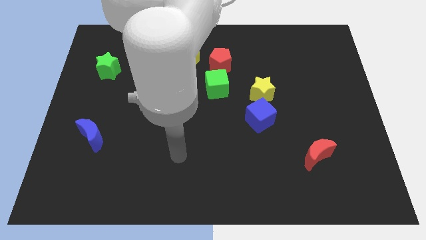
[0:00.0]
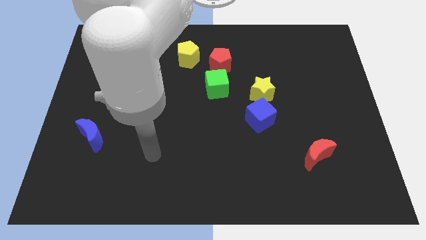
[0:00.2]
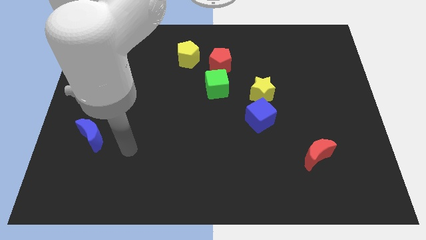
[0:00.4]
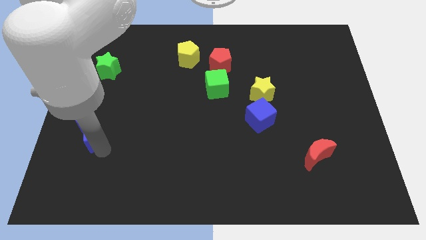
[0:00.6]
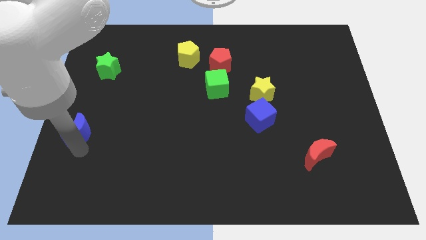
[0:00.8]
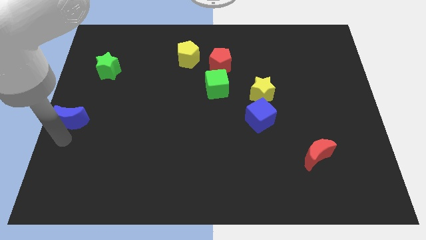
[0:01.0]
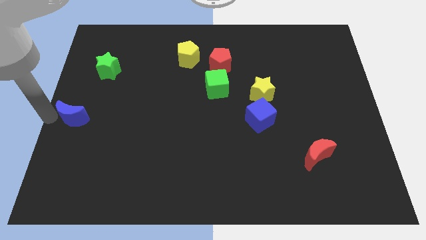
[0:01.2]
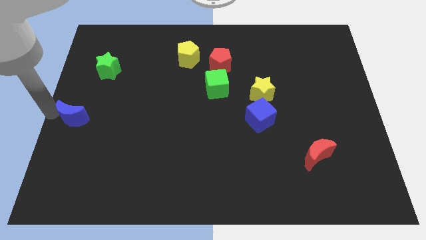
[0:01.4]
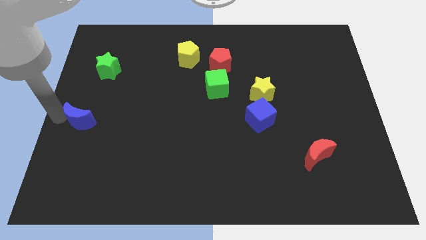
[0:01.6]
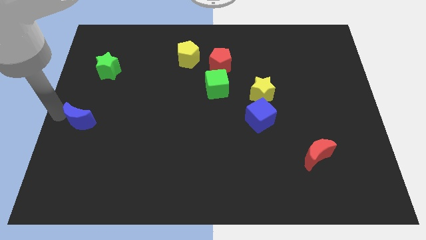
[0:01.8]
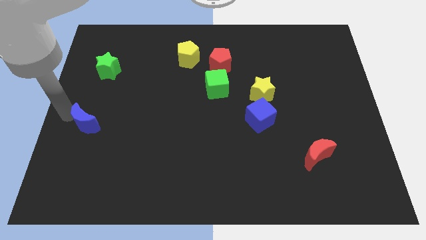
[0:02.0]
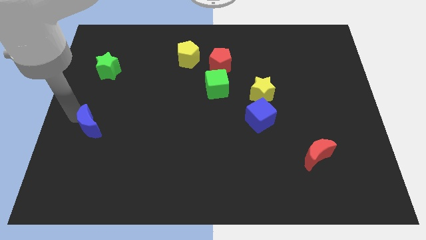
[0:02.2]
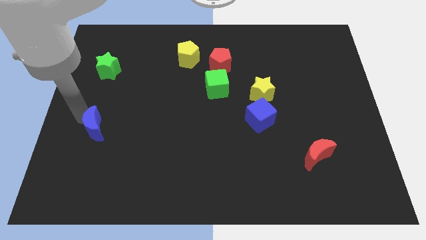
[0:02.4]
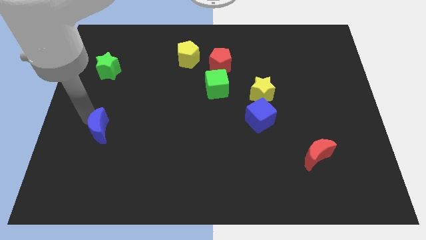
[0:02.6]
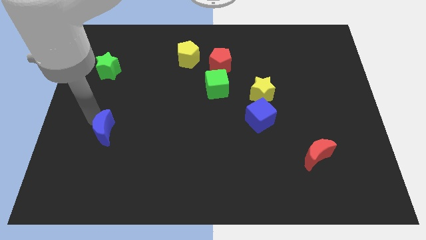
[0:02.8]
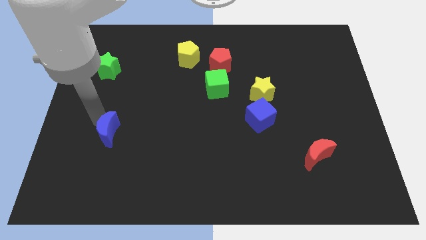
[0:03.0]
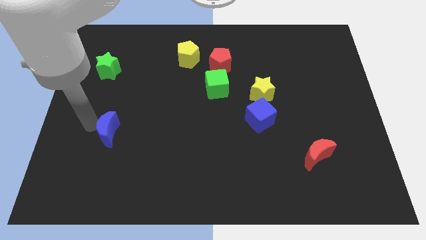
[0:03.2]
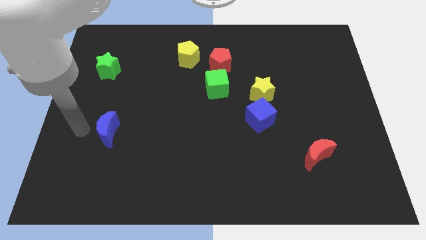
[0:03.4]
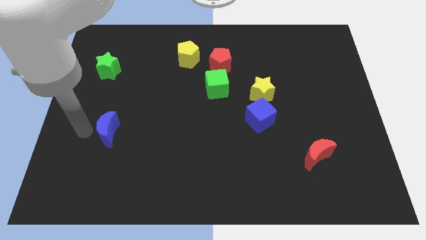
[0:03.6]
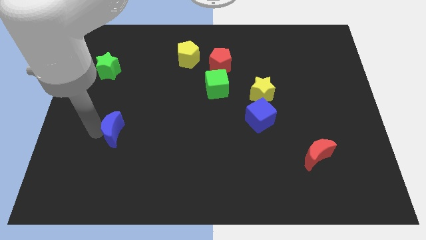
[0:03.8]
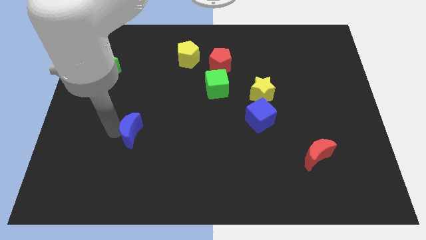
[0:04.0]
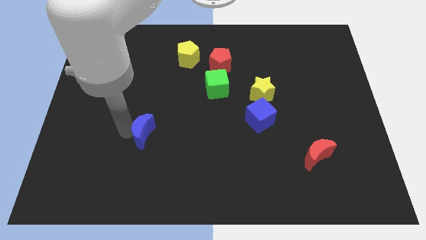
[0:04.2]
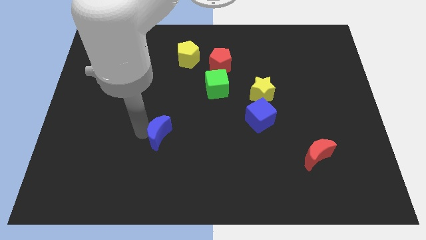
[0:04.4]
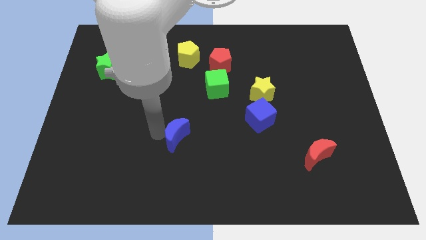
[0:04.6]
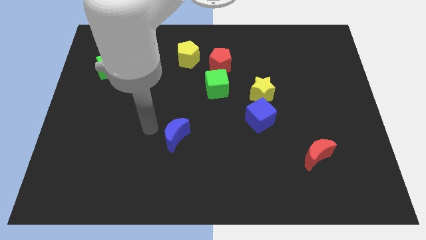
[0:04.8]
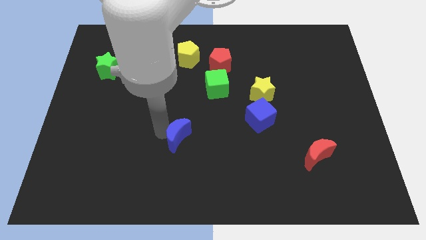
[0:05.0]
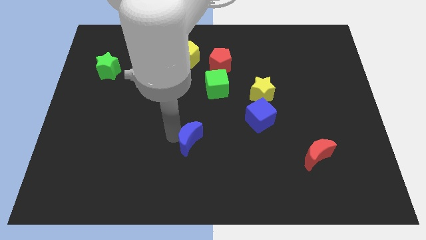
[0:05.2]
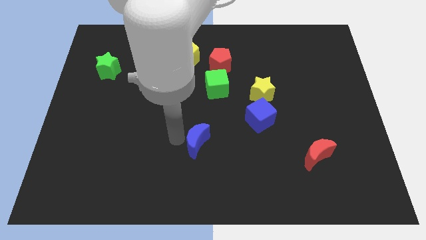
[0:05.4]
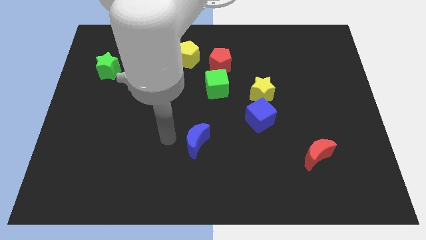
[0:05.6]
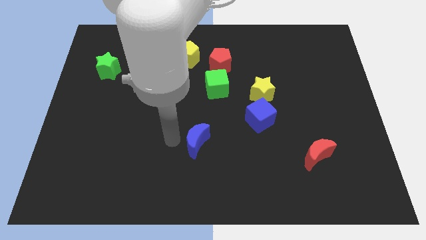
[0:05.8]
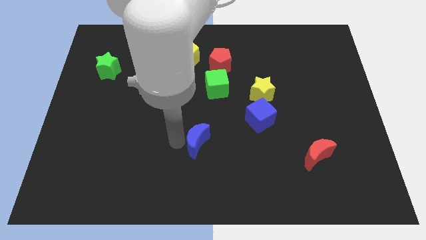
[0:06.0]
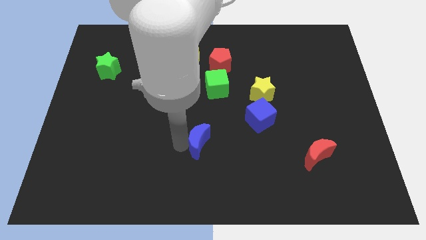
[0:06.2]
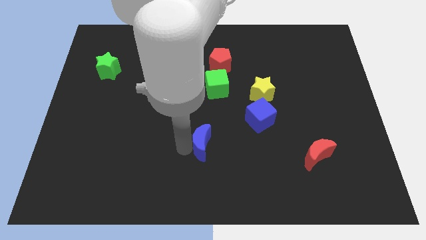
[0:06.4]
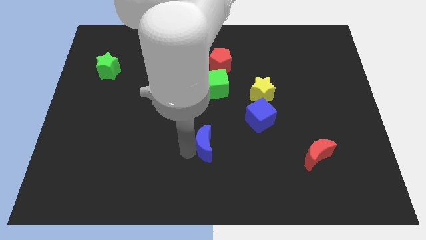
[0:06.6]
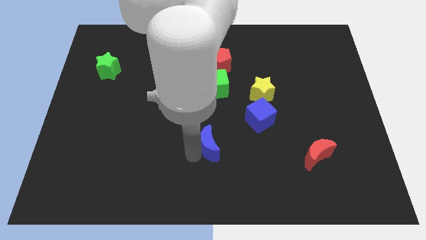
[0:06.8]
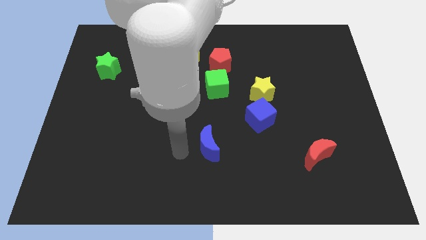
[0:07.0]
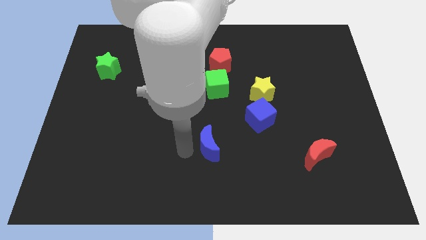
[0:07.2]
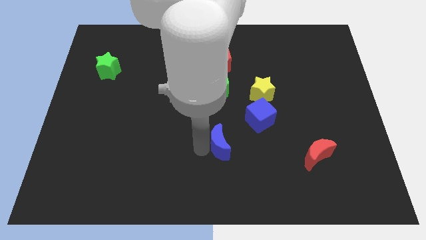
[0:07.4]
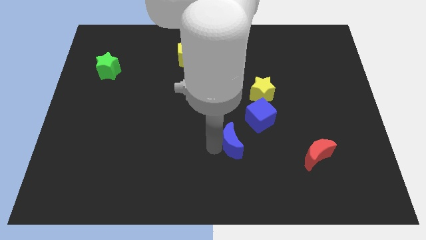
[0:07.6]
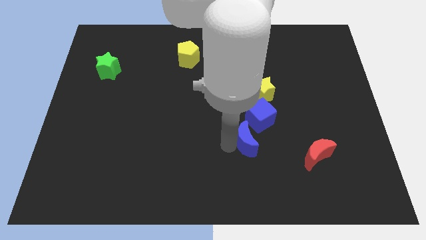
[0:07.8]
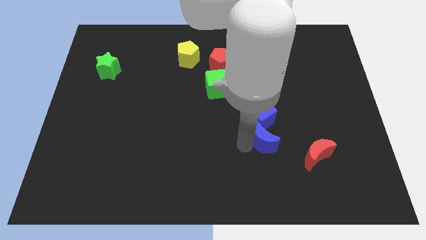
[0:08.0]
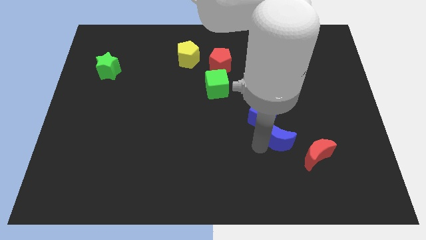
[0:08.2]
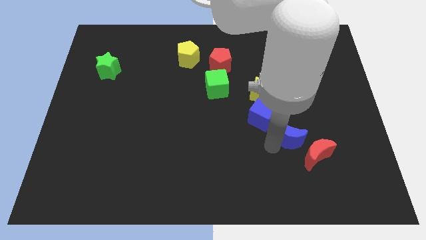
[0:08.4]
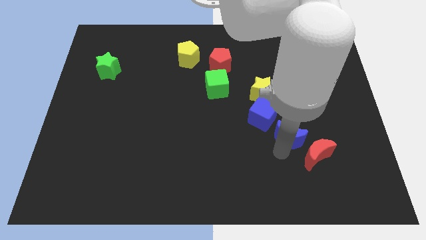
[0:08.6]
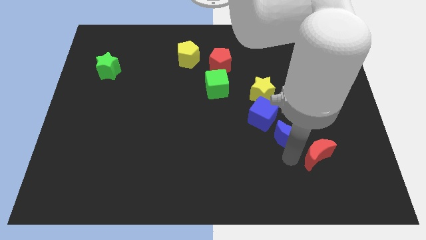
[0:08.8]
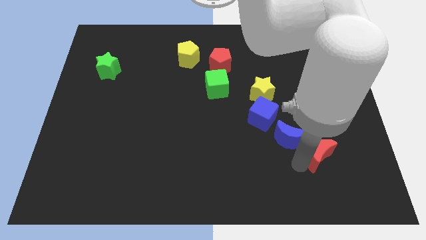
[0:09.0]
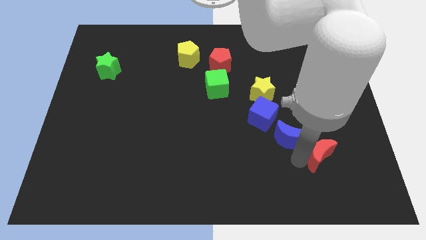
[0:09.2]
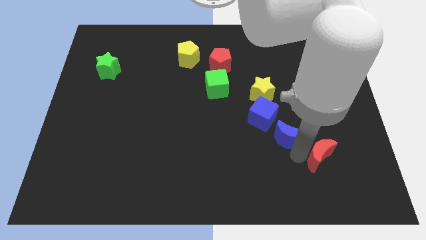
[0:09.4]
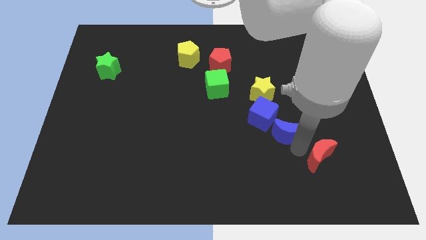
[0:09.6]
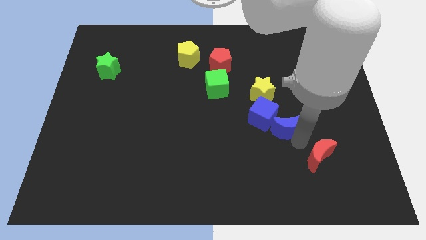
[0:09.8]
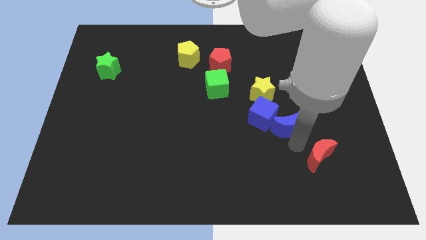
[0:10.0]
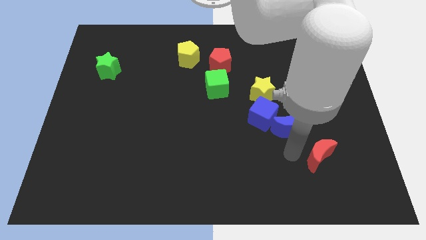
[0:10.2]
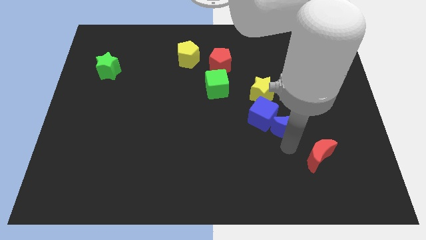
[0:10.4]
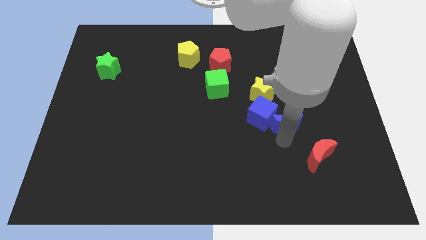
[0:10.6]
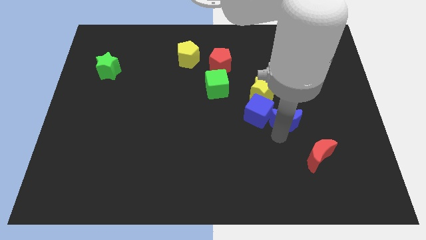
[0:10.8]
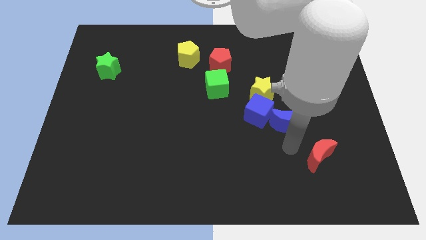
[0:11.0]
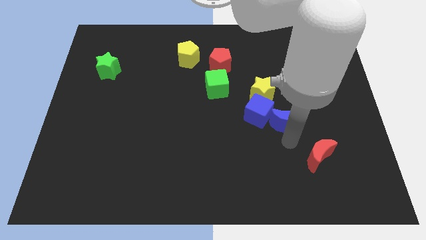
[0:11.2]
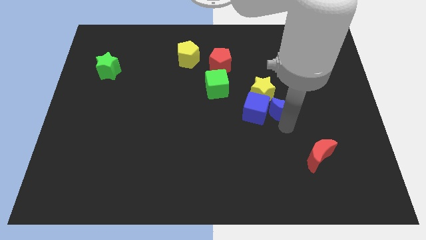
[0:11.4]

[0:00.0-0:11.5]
put the blue moon diagonally up and to the right of the blue cube
